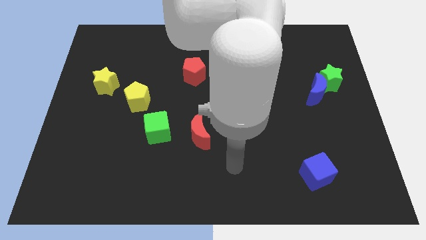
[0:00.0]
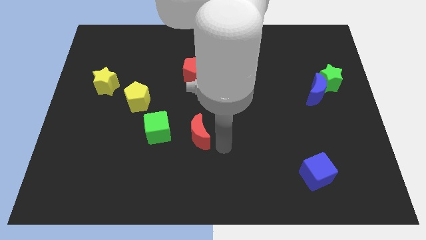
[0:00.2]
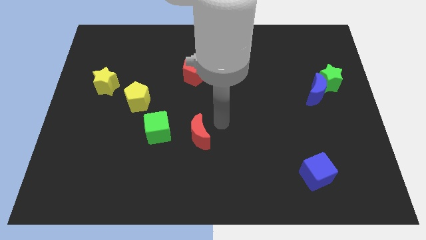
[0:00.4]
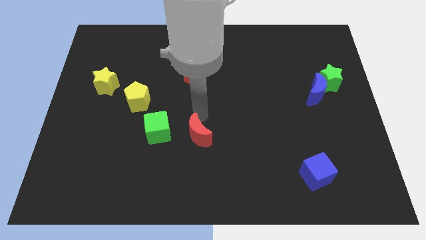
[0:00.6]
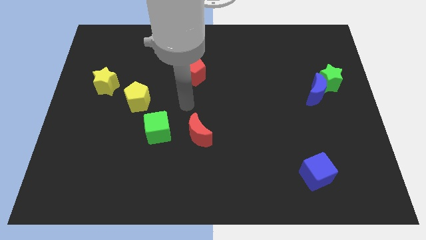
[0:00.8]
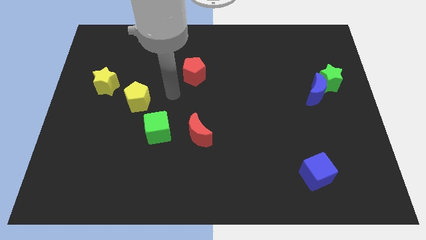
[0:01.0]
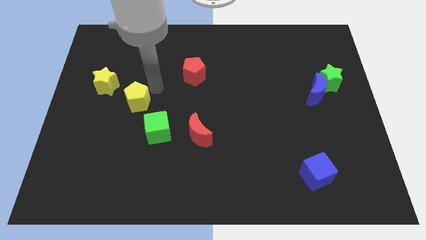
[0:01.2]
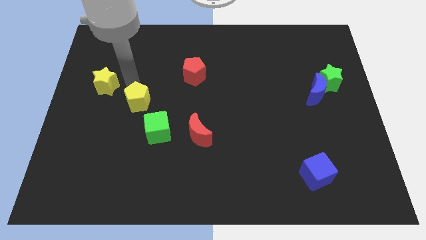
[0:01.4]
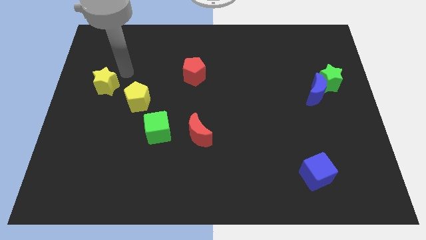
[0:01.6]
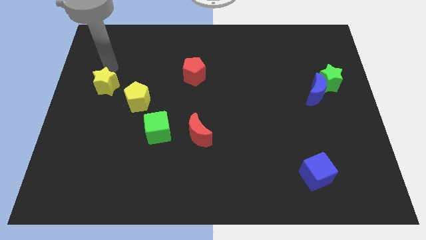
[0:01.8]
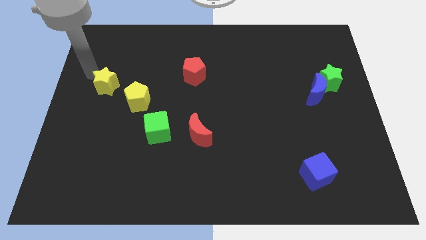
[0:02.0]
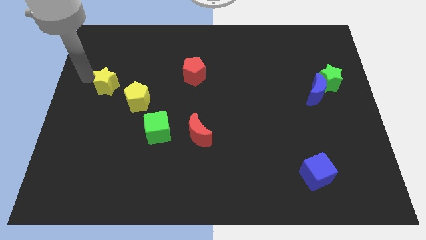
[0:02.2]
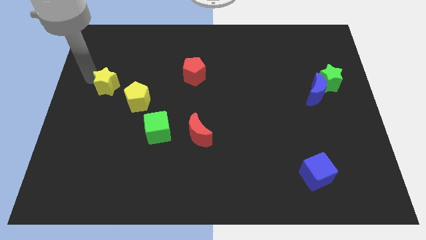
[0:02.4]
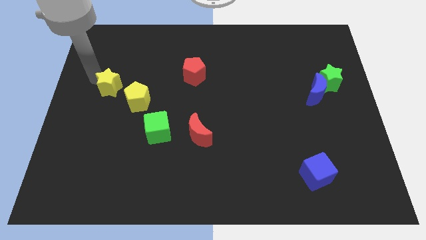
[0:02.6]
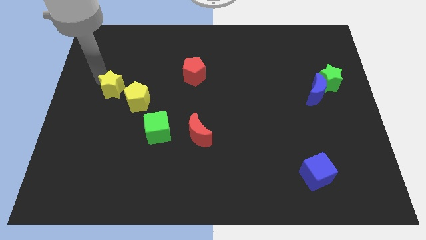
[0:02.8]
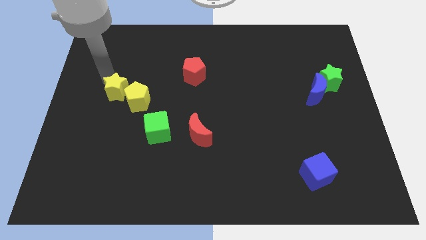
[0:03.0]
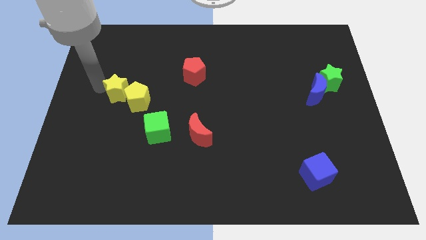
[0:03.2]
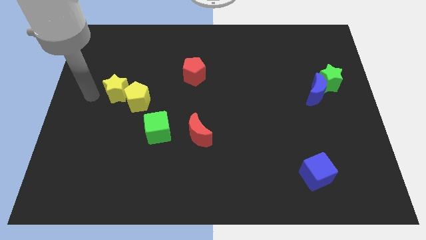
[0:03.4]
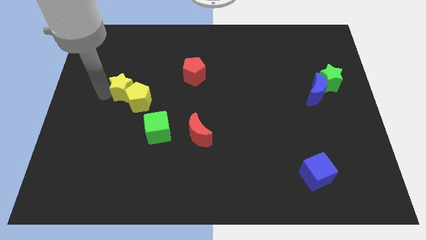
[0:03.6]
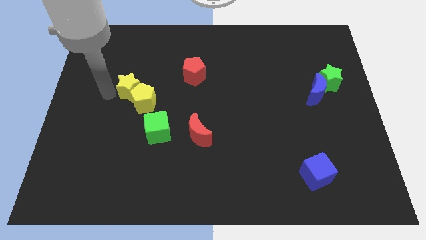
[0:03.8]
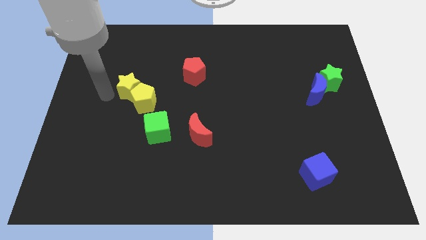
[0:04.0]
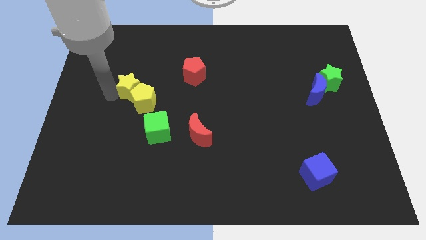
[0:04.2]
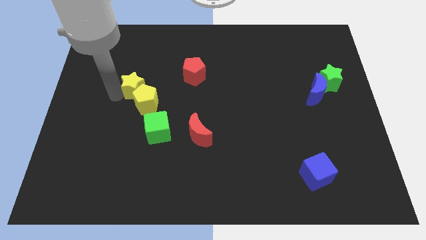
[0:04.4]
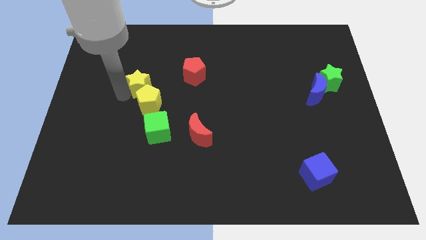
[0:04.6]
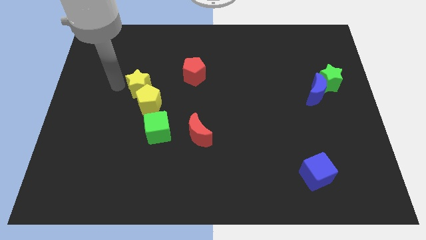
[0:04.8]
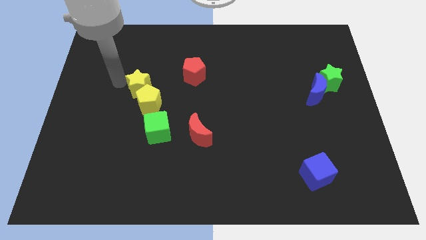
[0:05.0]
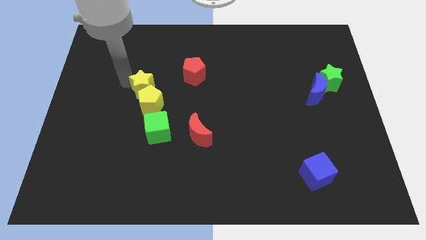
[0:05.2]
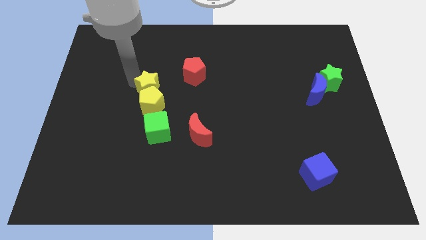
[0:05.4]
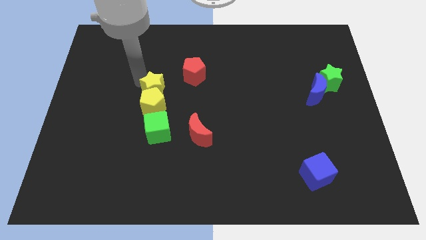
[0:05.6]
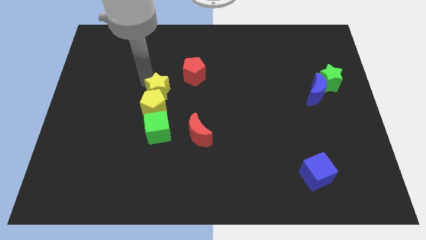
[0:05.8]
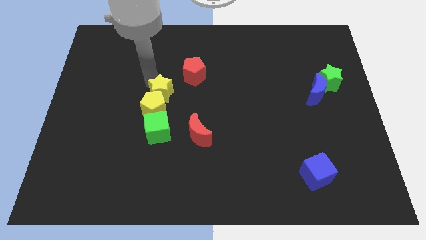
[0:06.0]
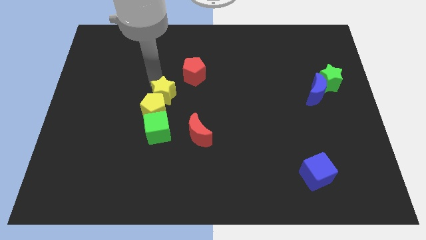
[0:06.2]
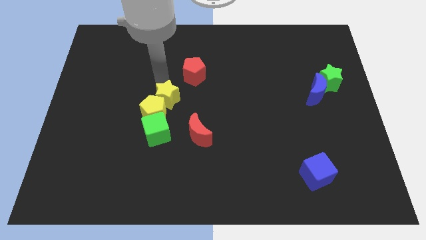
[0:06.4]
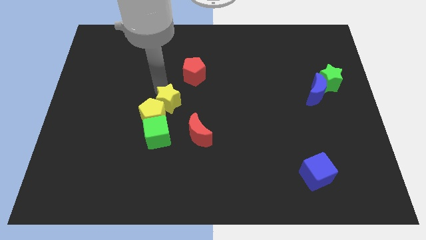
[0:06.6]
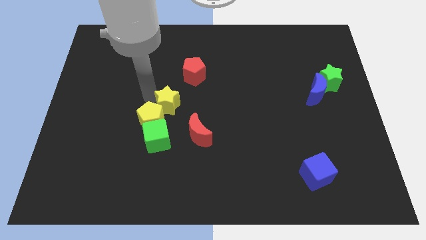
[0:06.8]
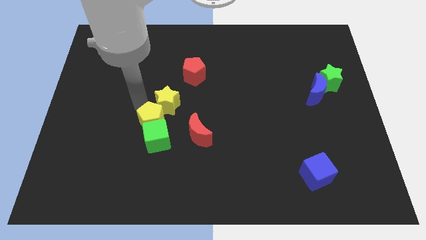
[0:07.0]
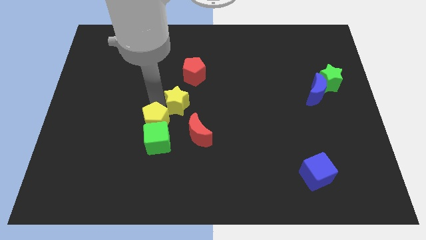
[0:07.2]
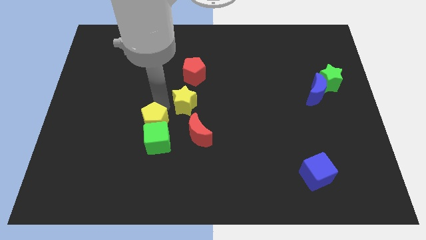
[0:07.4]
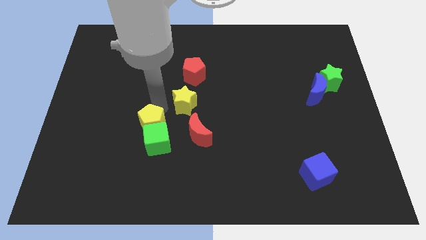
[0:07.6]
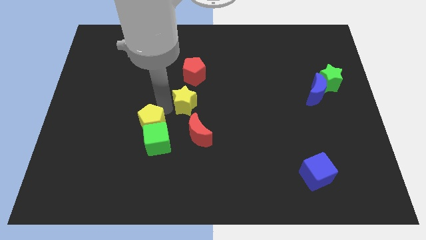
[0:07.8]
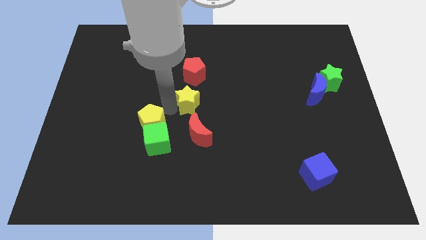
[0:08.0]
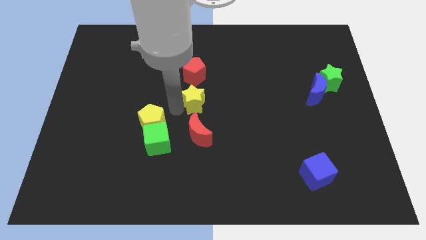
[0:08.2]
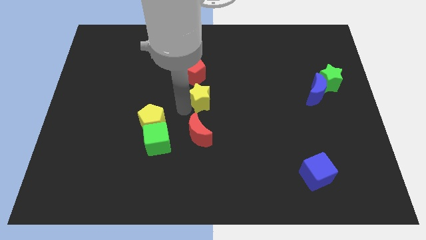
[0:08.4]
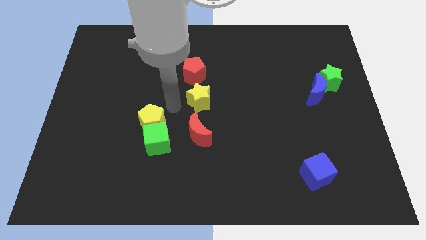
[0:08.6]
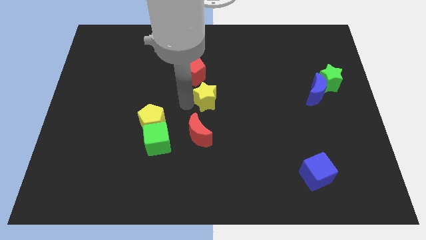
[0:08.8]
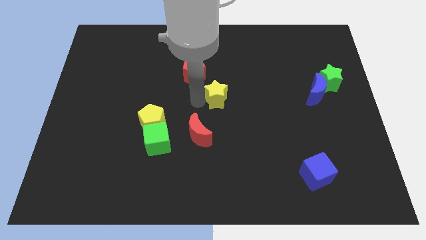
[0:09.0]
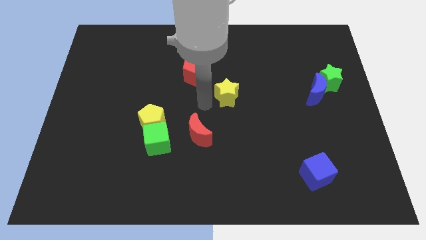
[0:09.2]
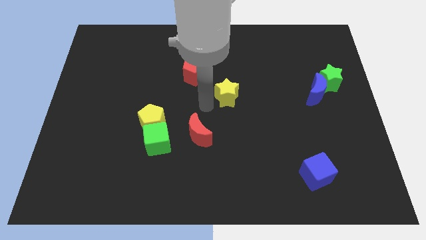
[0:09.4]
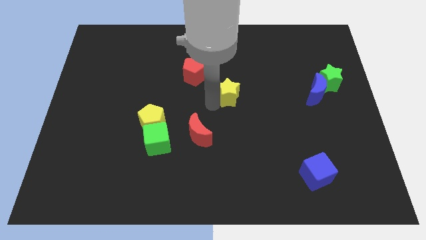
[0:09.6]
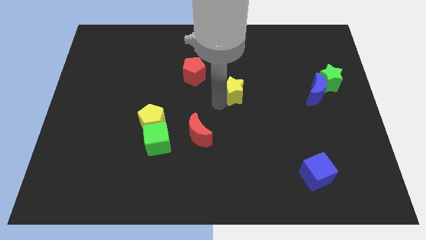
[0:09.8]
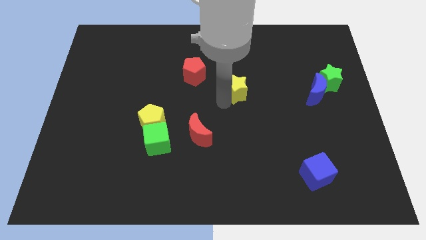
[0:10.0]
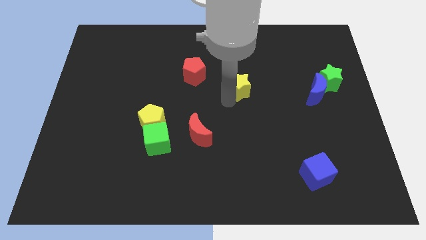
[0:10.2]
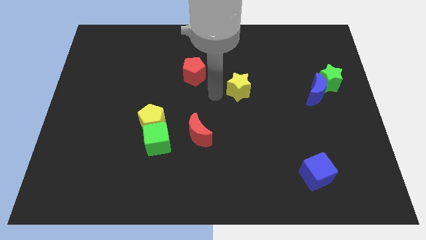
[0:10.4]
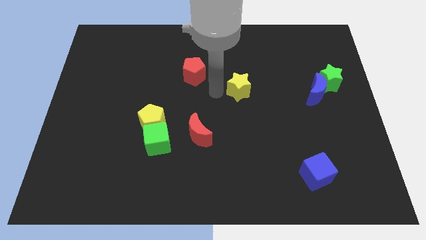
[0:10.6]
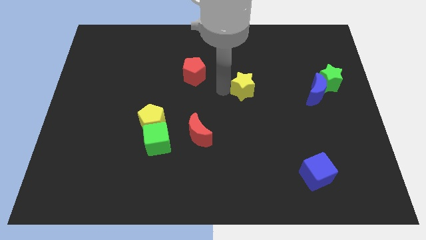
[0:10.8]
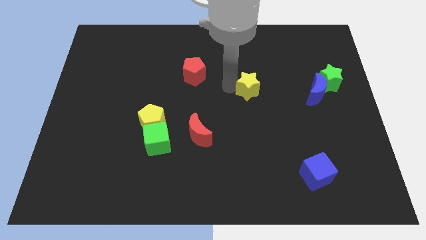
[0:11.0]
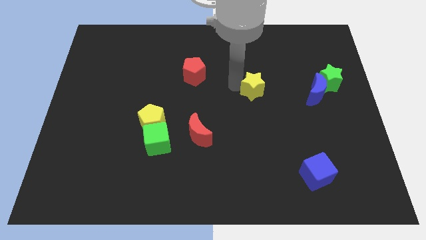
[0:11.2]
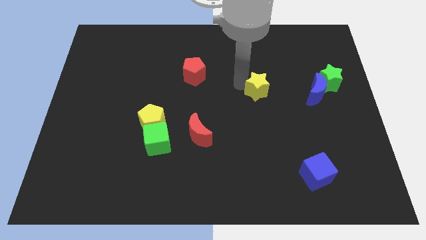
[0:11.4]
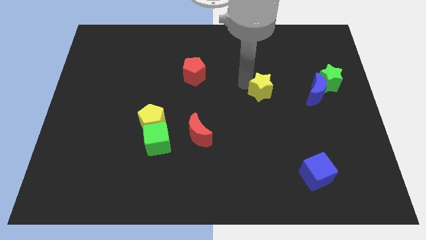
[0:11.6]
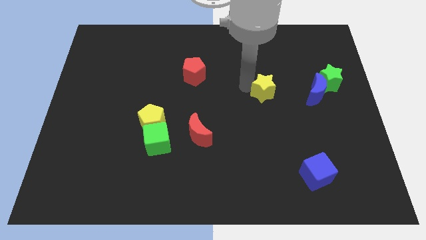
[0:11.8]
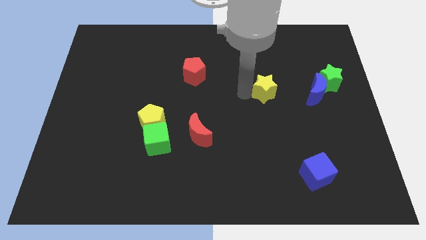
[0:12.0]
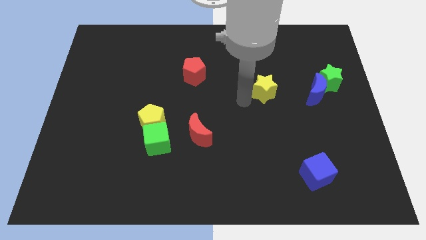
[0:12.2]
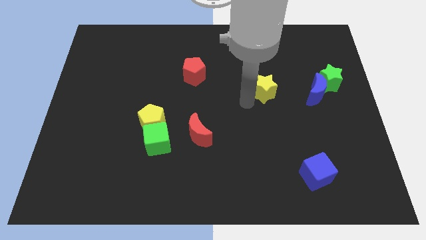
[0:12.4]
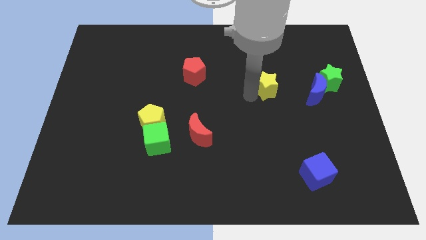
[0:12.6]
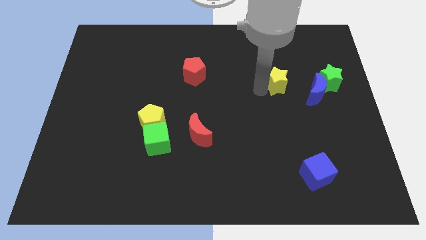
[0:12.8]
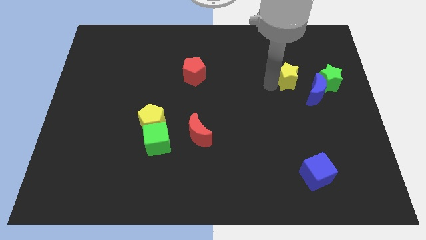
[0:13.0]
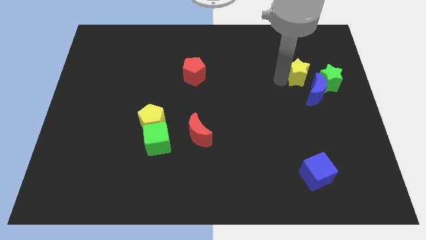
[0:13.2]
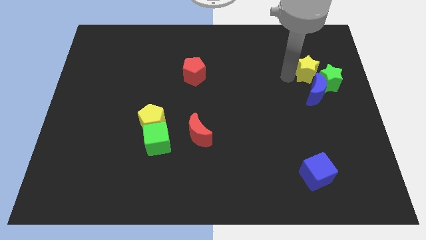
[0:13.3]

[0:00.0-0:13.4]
push the yellow star to the green star

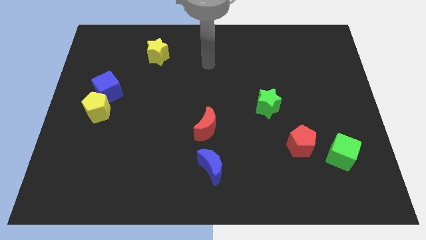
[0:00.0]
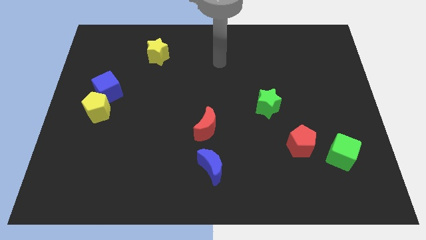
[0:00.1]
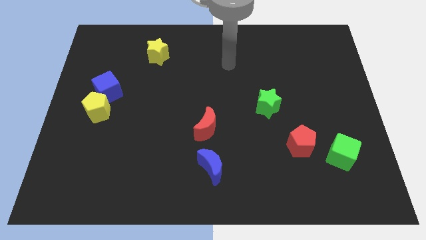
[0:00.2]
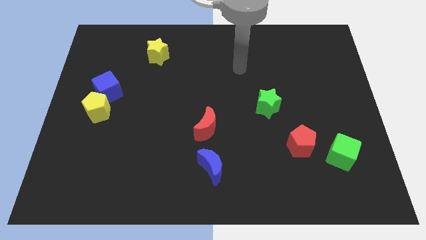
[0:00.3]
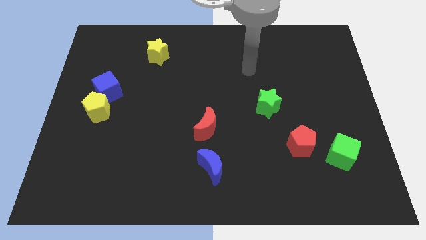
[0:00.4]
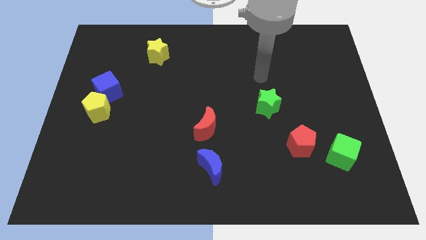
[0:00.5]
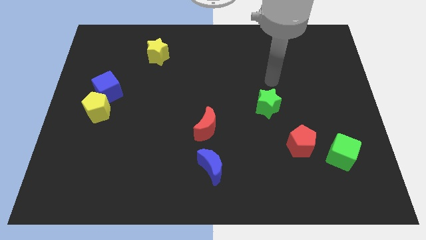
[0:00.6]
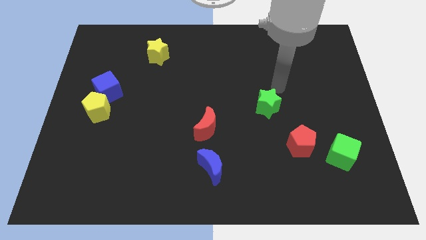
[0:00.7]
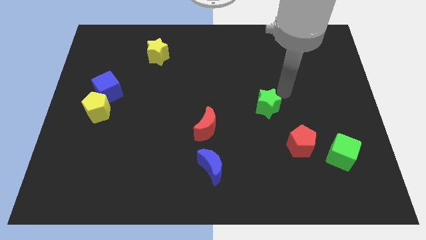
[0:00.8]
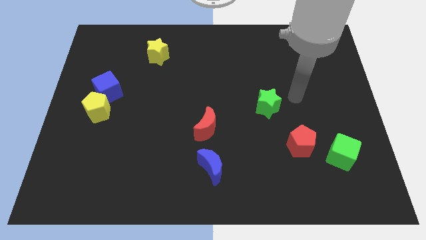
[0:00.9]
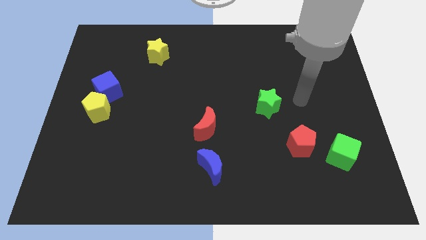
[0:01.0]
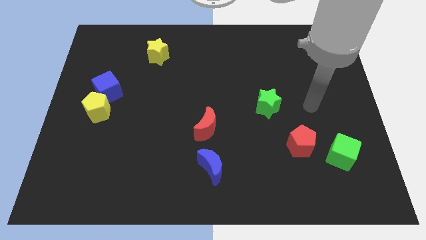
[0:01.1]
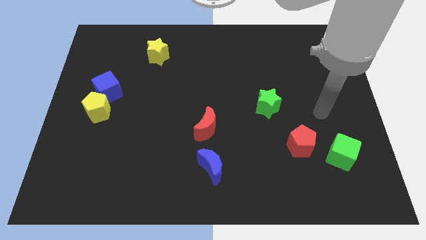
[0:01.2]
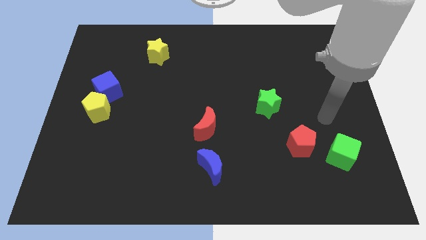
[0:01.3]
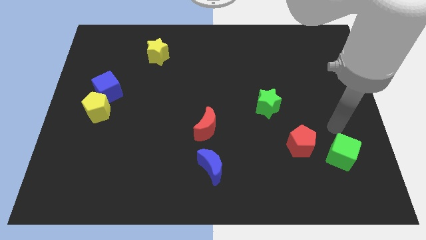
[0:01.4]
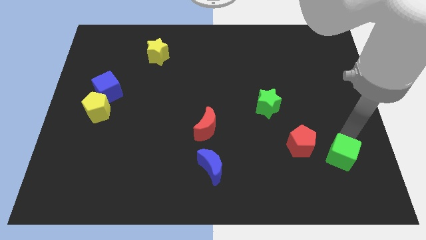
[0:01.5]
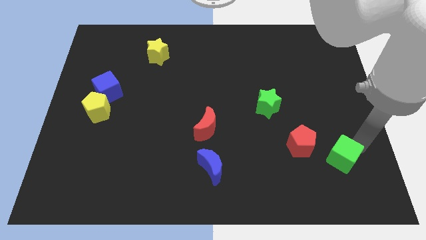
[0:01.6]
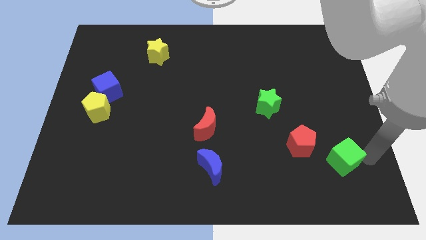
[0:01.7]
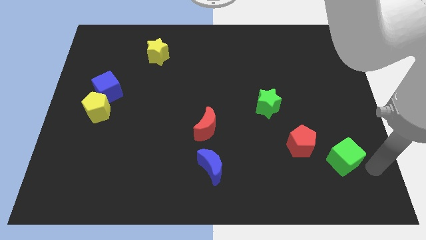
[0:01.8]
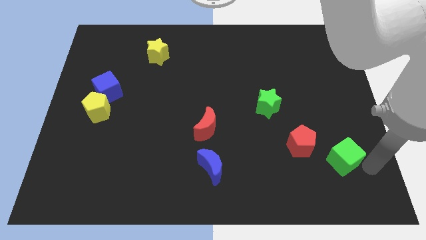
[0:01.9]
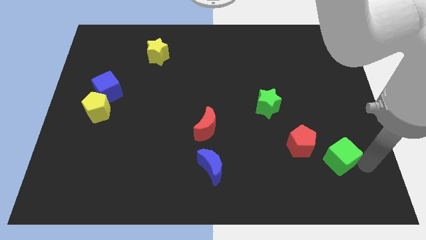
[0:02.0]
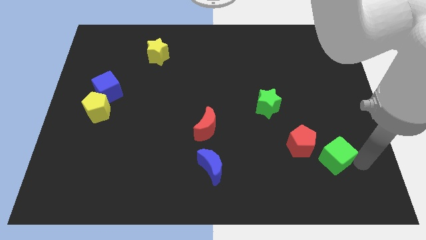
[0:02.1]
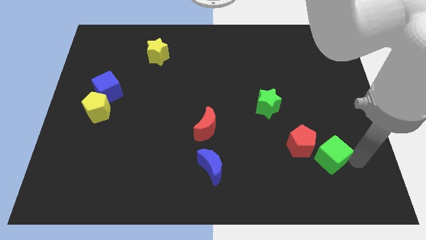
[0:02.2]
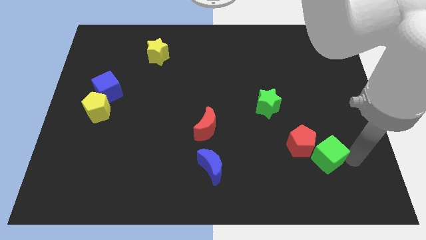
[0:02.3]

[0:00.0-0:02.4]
push the green cube towards the red pentagon
